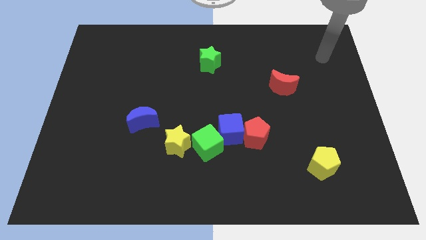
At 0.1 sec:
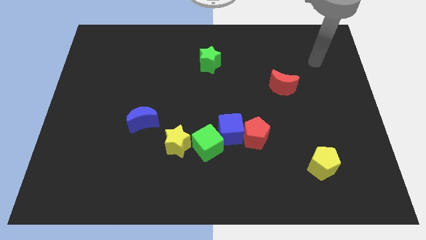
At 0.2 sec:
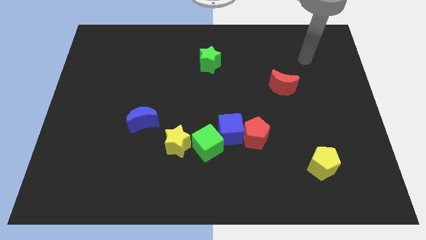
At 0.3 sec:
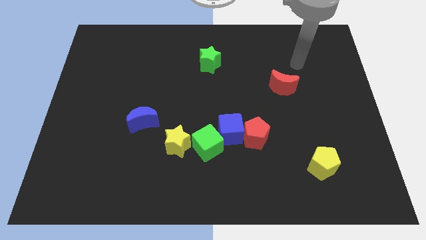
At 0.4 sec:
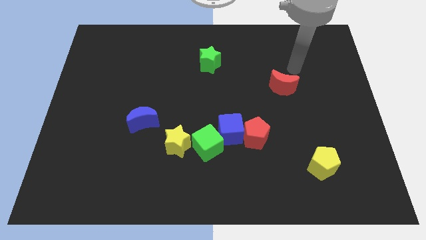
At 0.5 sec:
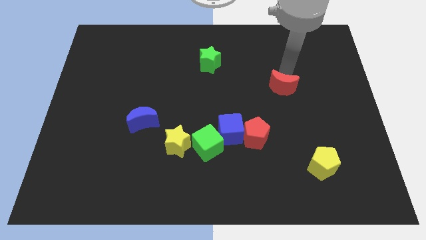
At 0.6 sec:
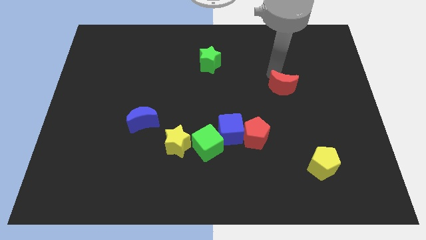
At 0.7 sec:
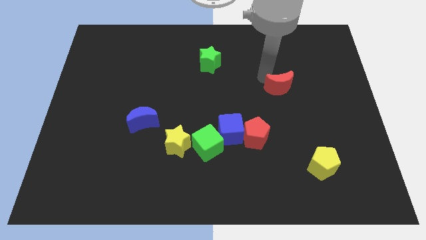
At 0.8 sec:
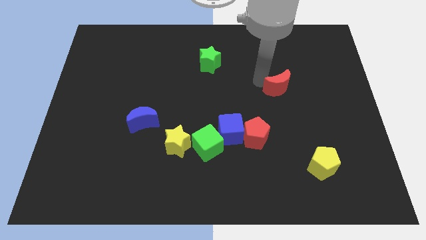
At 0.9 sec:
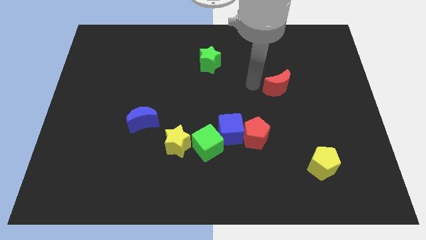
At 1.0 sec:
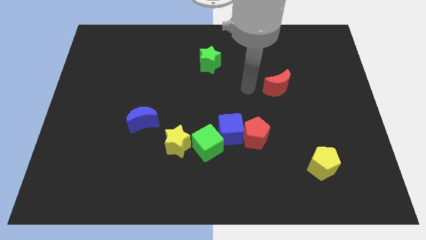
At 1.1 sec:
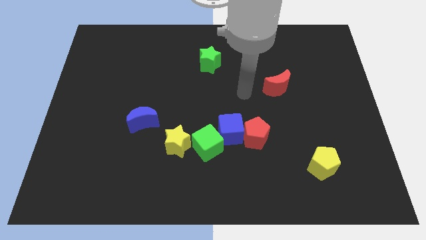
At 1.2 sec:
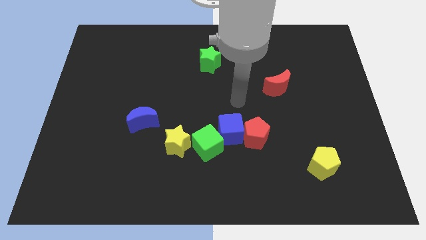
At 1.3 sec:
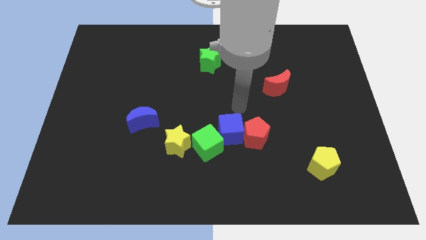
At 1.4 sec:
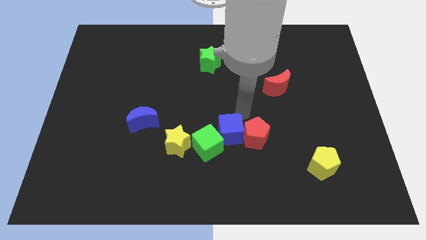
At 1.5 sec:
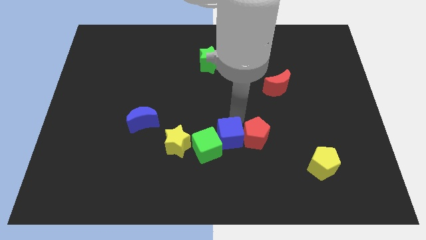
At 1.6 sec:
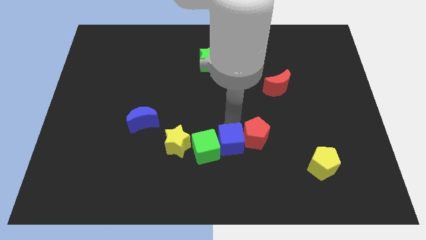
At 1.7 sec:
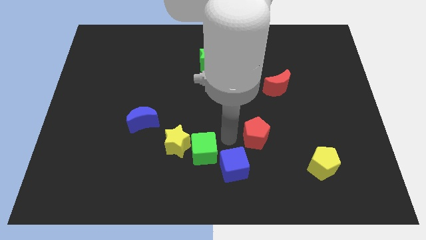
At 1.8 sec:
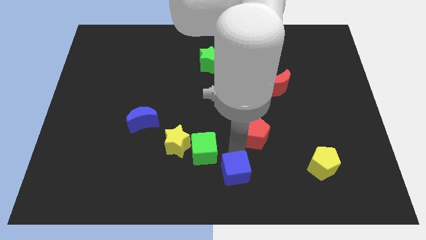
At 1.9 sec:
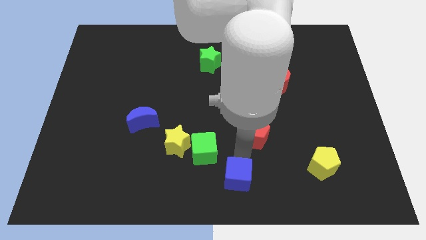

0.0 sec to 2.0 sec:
move the red pentagon away from the blue cube

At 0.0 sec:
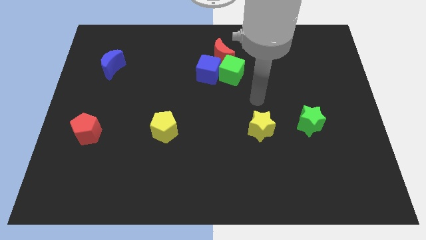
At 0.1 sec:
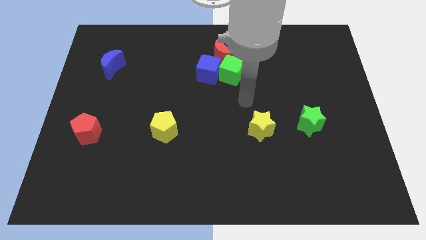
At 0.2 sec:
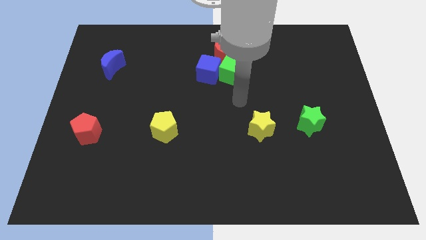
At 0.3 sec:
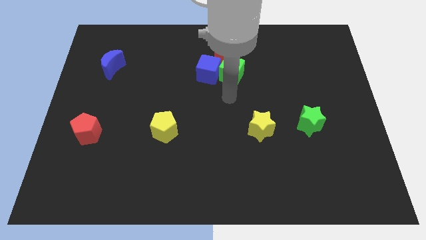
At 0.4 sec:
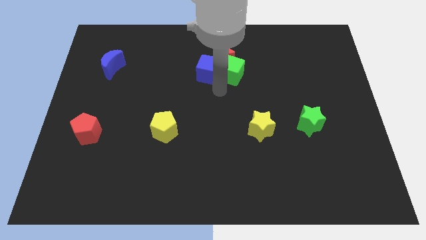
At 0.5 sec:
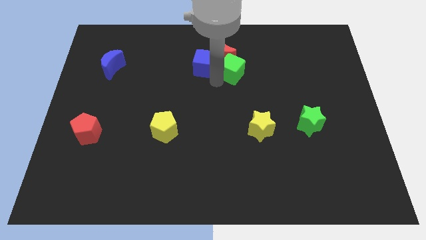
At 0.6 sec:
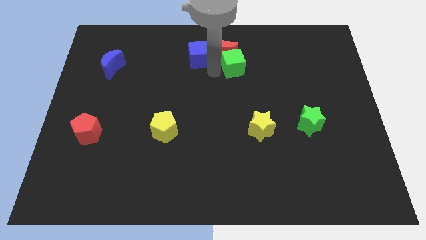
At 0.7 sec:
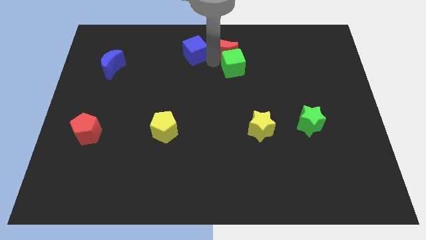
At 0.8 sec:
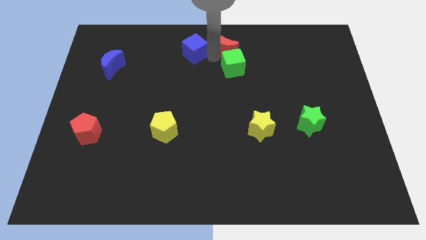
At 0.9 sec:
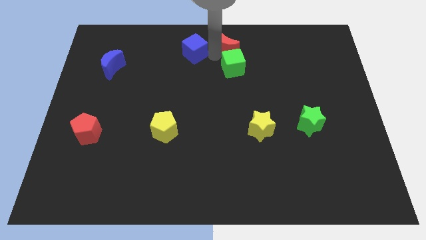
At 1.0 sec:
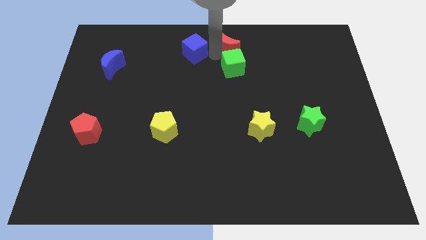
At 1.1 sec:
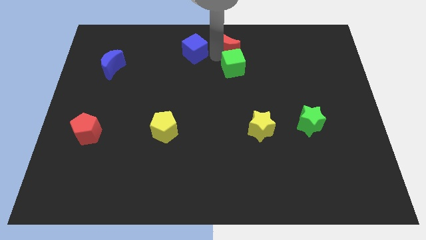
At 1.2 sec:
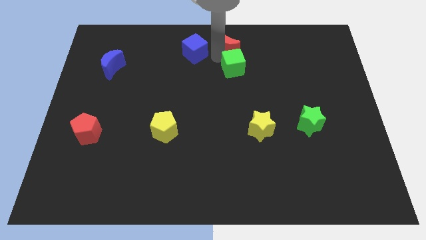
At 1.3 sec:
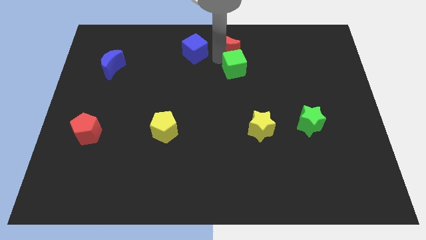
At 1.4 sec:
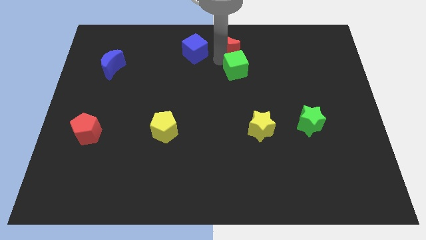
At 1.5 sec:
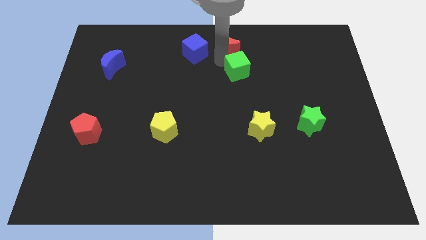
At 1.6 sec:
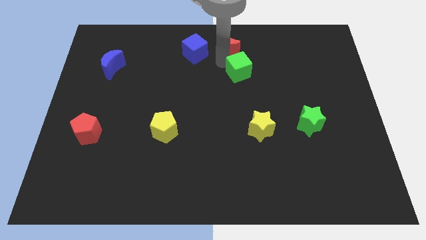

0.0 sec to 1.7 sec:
separate the green cube from the blue cube and red moon

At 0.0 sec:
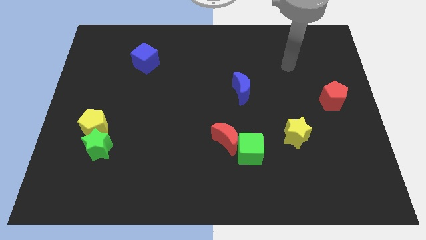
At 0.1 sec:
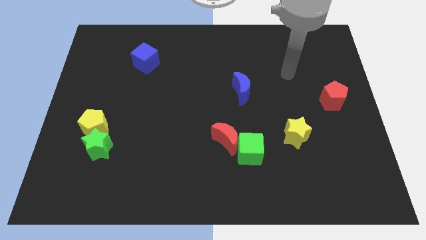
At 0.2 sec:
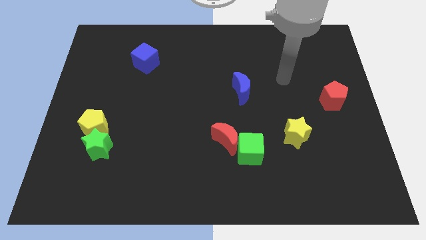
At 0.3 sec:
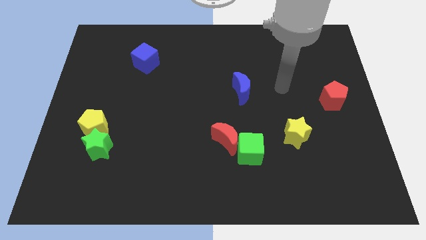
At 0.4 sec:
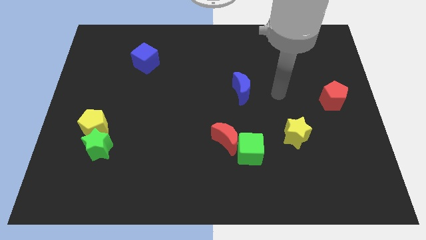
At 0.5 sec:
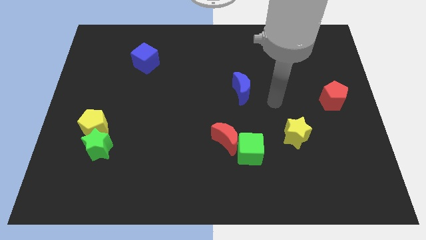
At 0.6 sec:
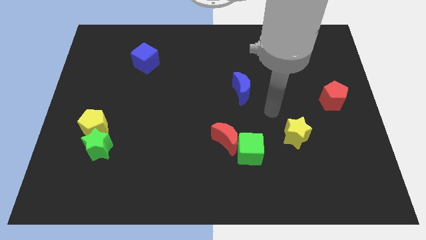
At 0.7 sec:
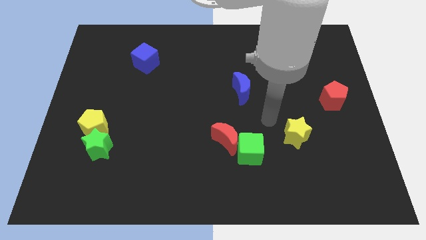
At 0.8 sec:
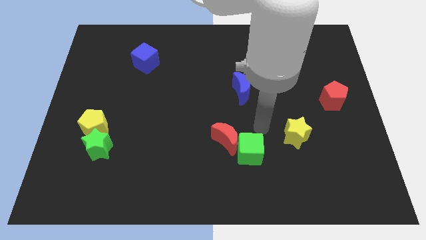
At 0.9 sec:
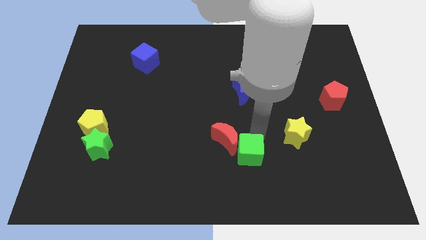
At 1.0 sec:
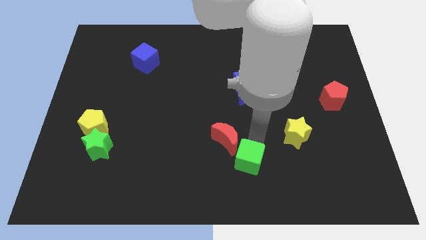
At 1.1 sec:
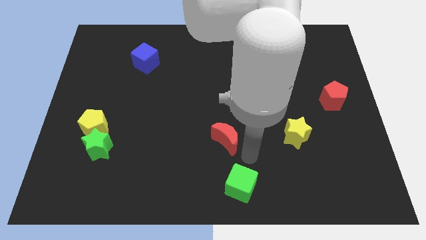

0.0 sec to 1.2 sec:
move the red moon away from the green cube

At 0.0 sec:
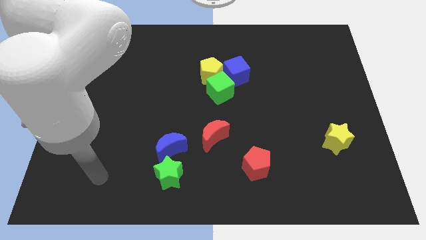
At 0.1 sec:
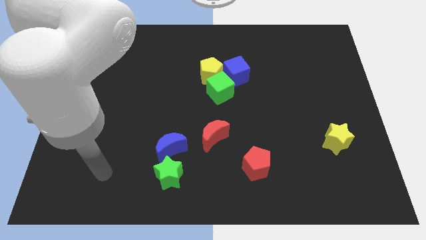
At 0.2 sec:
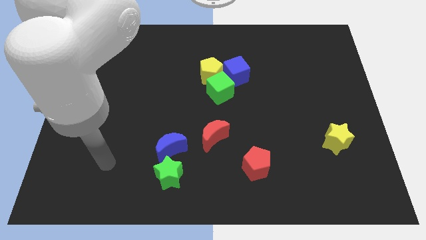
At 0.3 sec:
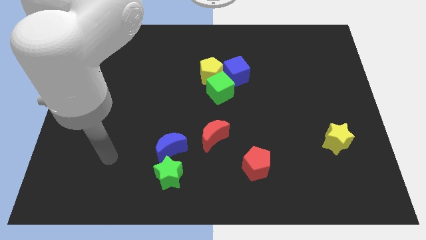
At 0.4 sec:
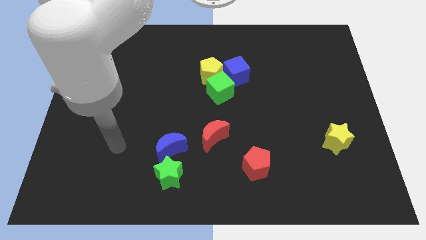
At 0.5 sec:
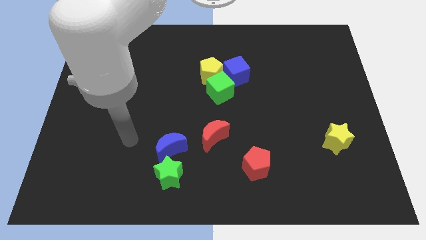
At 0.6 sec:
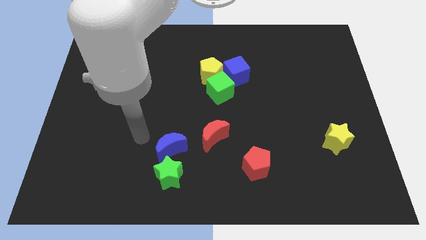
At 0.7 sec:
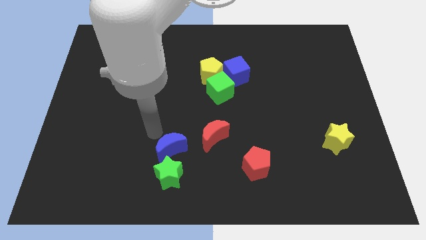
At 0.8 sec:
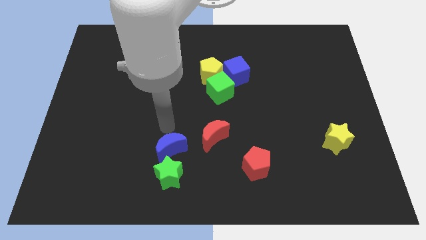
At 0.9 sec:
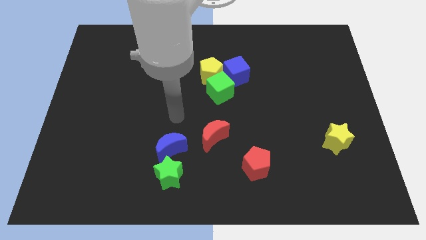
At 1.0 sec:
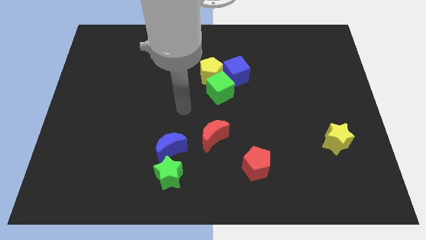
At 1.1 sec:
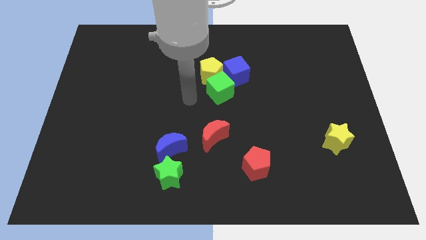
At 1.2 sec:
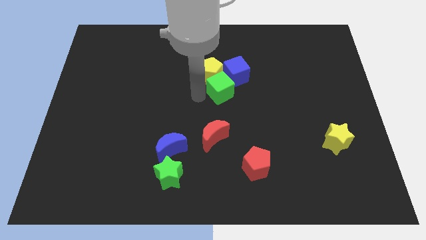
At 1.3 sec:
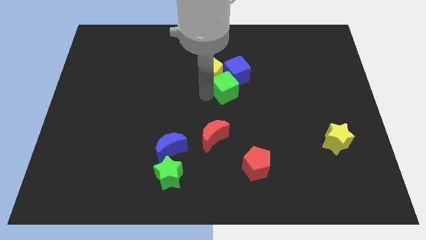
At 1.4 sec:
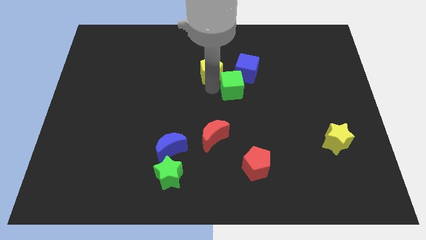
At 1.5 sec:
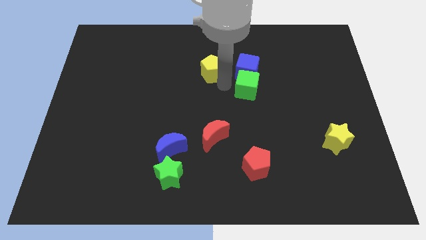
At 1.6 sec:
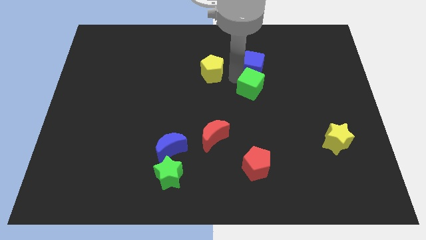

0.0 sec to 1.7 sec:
move the yellow pentagon away from the green cube and blue cube

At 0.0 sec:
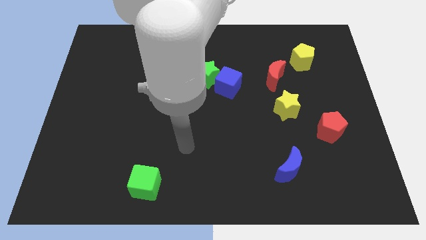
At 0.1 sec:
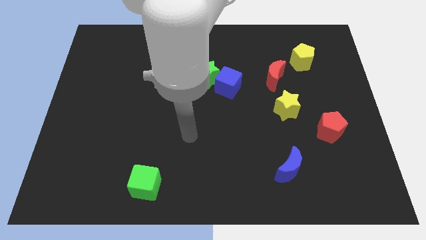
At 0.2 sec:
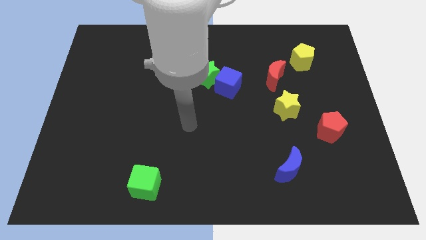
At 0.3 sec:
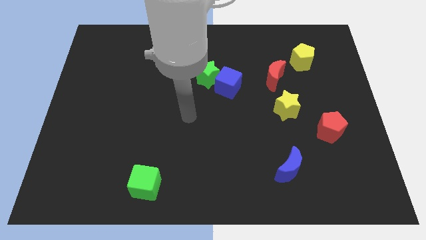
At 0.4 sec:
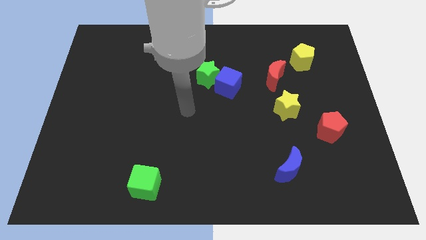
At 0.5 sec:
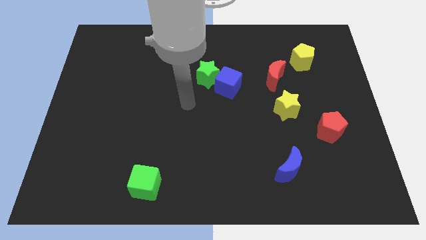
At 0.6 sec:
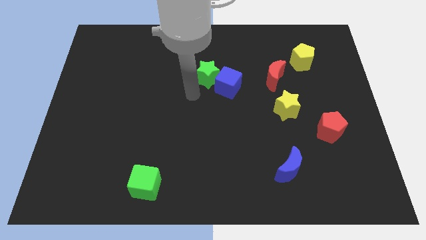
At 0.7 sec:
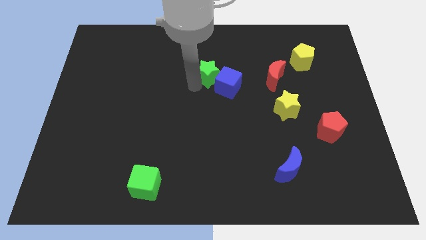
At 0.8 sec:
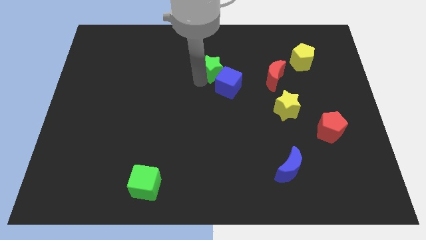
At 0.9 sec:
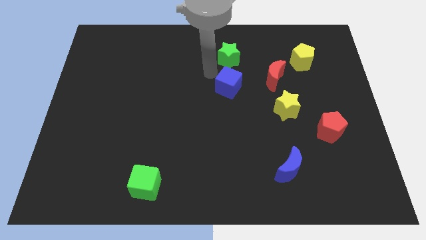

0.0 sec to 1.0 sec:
pull the blue cube apart from the green star

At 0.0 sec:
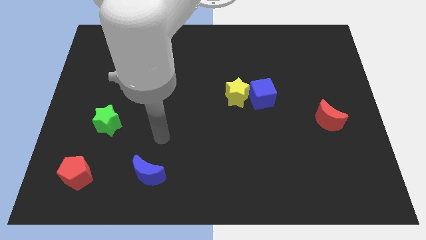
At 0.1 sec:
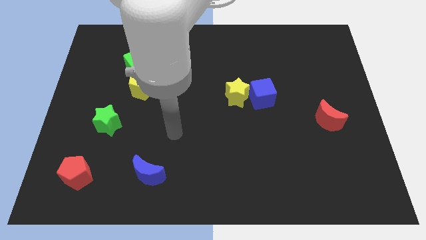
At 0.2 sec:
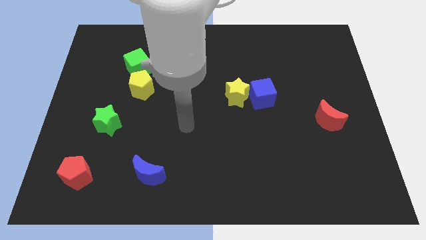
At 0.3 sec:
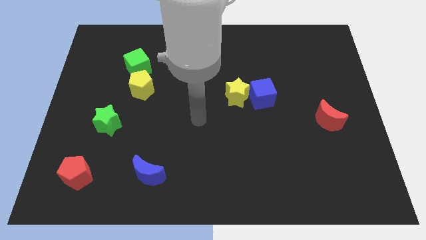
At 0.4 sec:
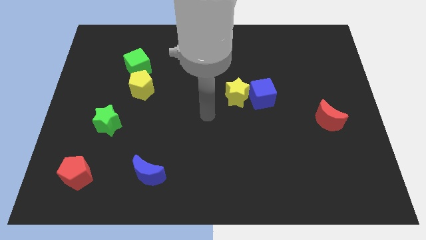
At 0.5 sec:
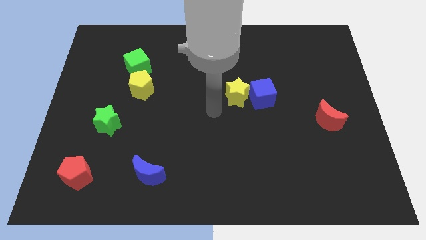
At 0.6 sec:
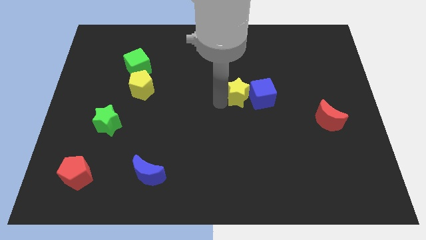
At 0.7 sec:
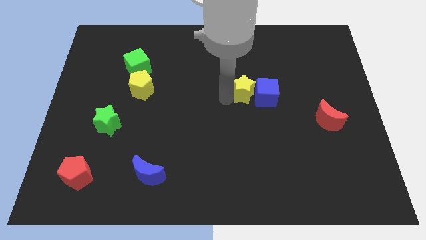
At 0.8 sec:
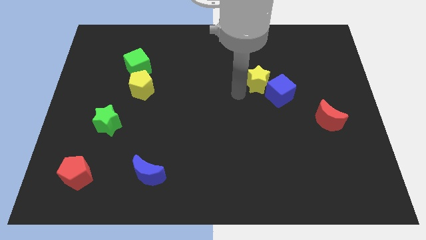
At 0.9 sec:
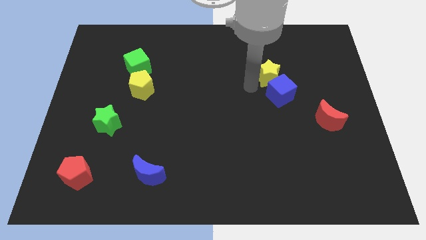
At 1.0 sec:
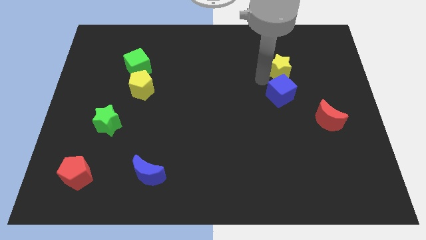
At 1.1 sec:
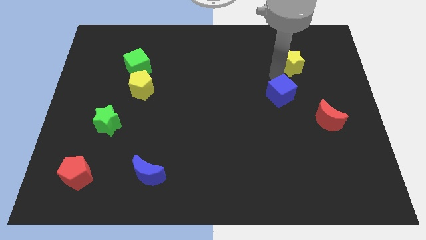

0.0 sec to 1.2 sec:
move the blue cube away from the yellow star

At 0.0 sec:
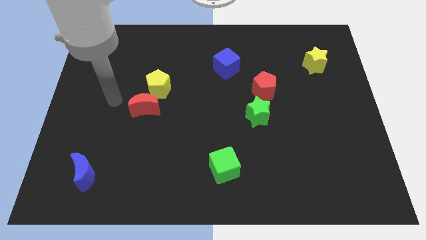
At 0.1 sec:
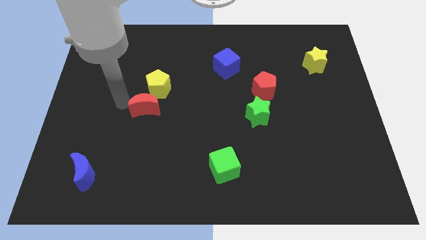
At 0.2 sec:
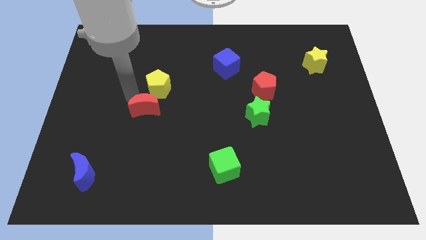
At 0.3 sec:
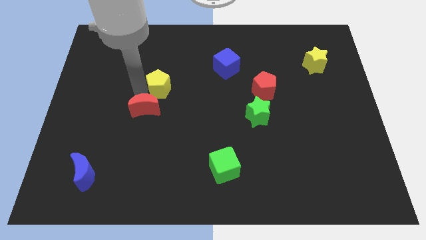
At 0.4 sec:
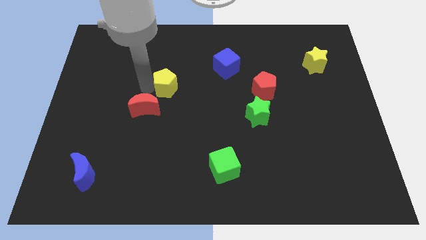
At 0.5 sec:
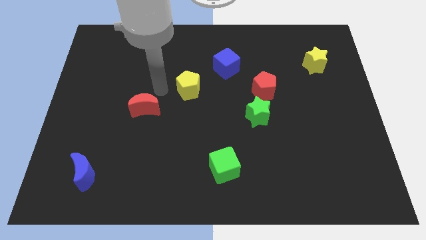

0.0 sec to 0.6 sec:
separate the red moon from the yellow pentagon

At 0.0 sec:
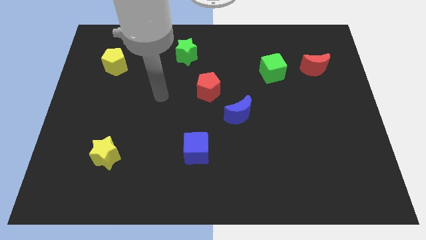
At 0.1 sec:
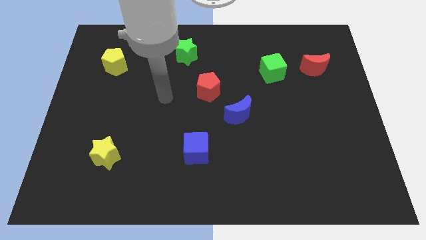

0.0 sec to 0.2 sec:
move the red pentagon away from the blue moon
